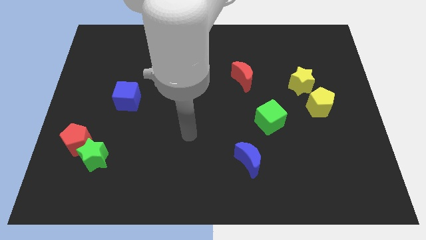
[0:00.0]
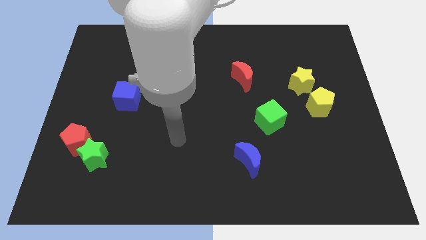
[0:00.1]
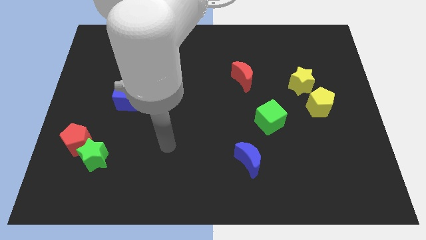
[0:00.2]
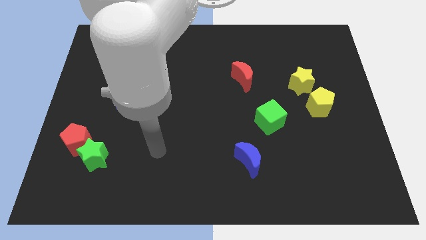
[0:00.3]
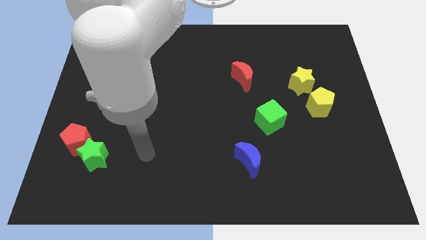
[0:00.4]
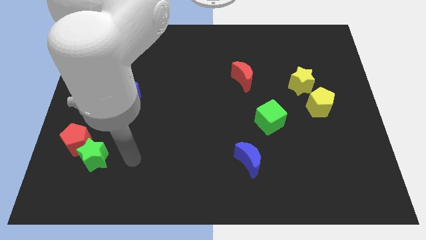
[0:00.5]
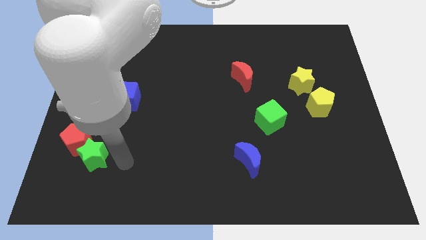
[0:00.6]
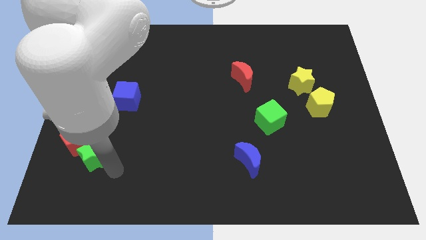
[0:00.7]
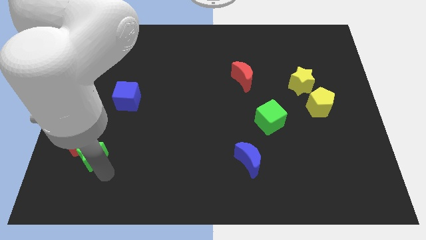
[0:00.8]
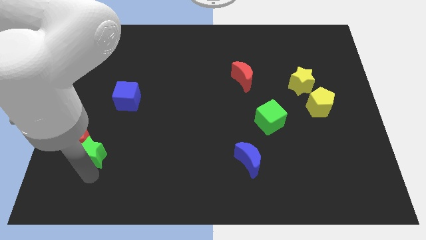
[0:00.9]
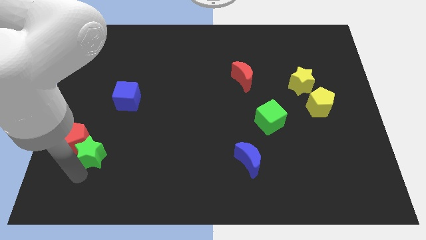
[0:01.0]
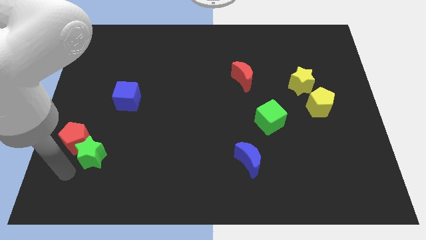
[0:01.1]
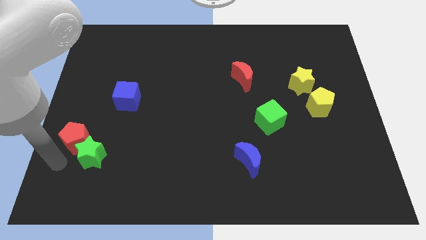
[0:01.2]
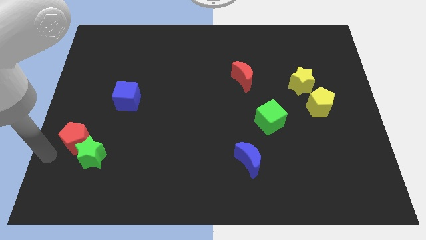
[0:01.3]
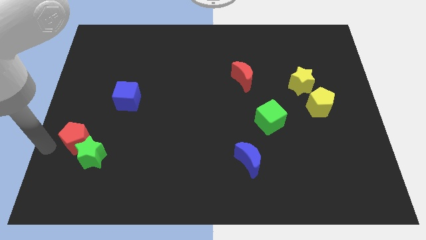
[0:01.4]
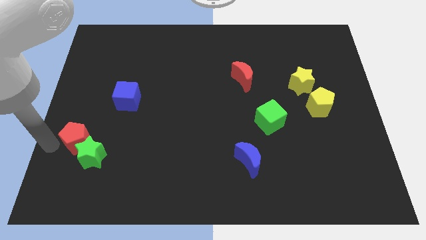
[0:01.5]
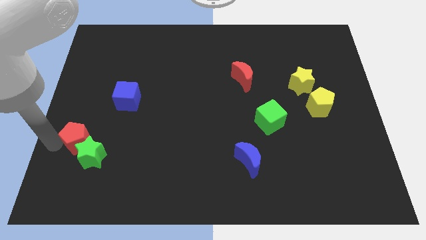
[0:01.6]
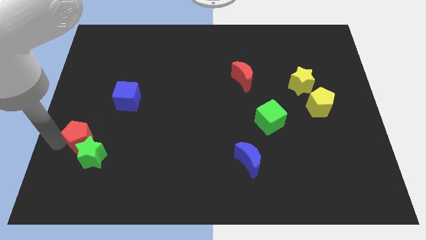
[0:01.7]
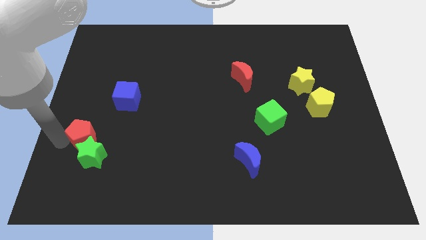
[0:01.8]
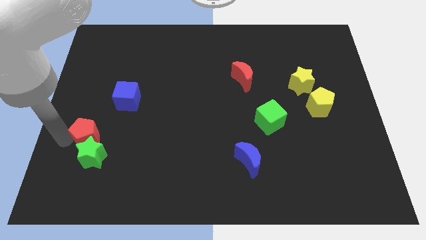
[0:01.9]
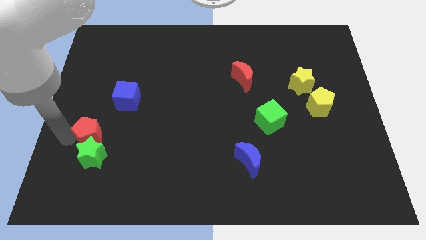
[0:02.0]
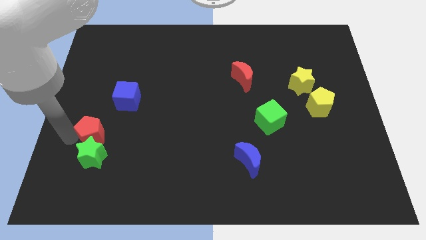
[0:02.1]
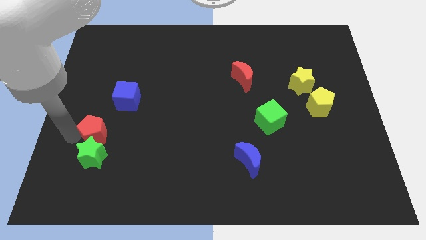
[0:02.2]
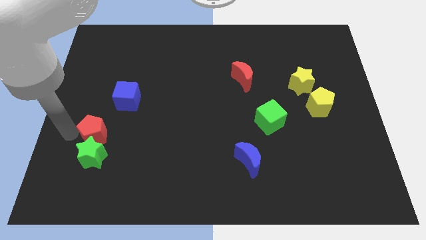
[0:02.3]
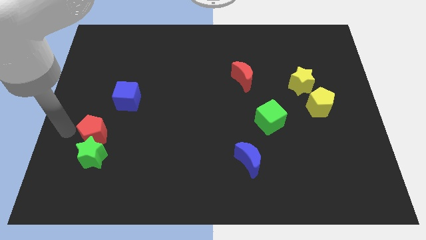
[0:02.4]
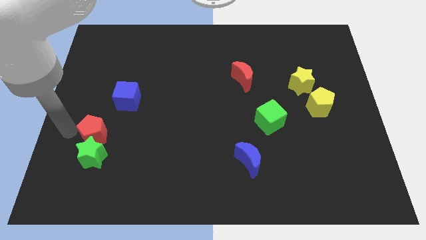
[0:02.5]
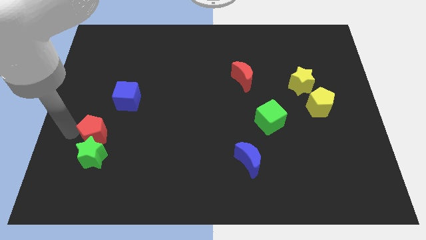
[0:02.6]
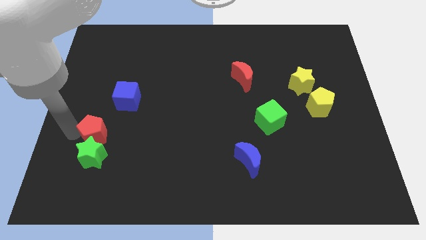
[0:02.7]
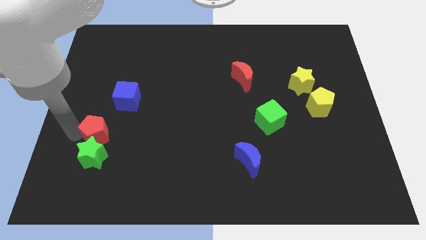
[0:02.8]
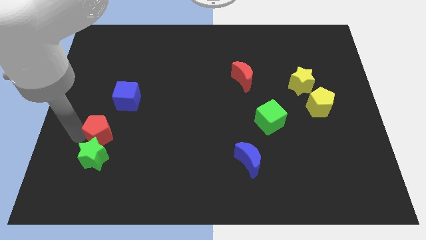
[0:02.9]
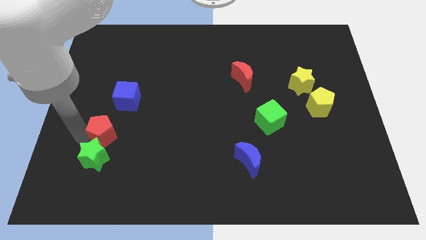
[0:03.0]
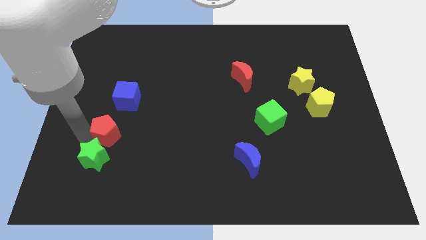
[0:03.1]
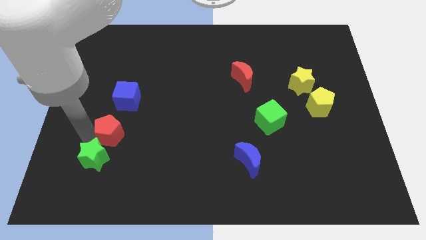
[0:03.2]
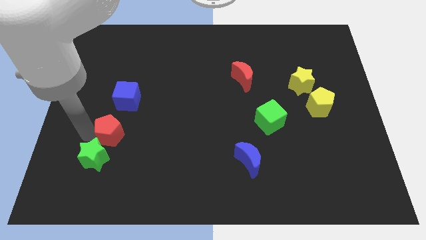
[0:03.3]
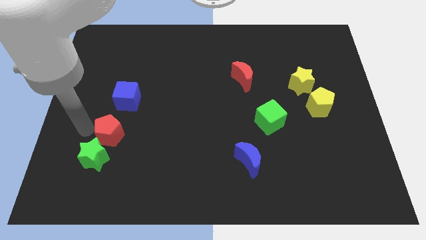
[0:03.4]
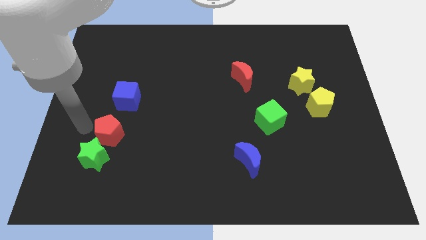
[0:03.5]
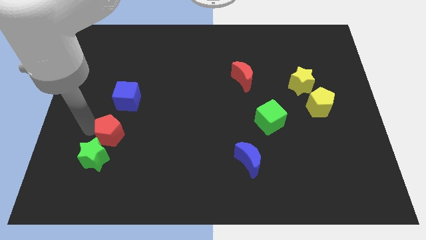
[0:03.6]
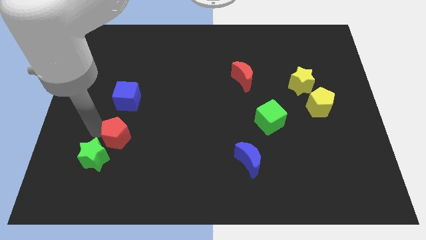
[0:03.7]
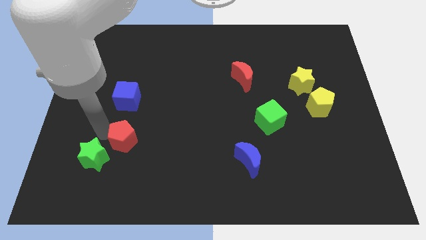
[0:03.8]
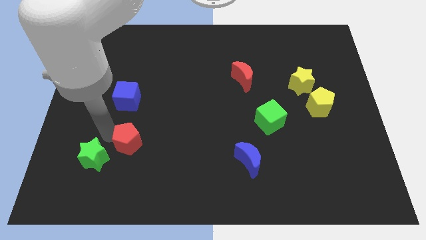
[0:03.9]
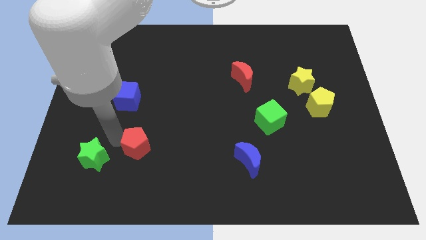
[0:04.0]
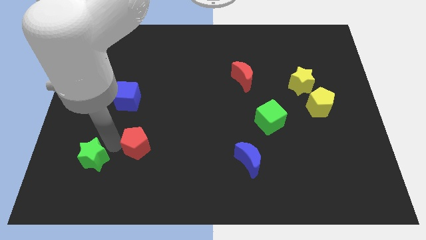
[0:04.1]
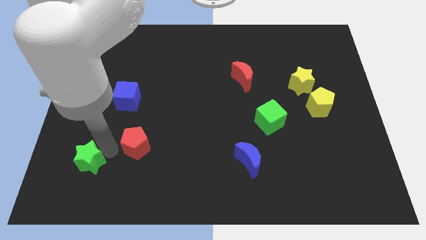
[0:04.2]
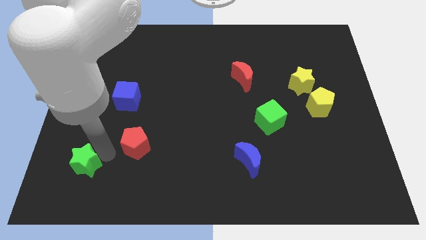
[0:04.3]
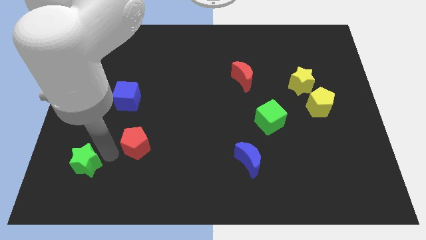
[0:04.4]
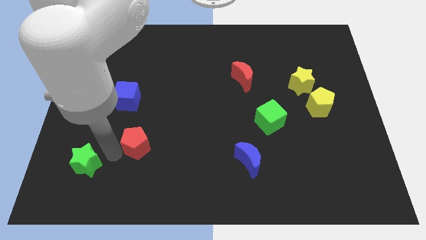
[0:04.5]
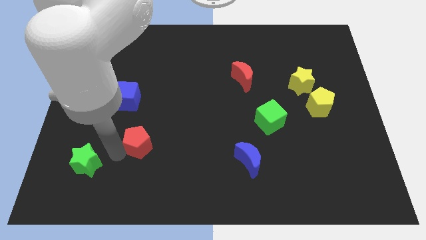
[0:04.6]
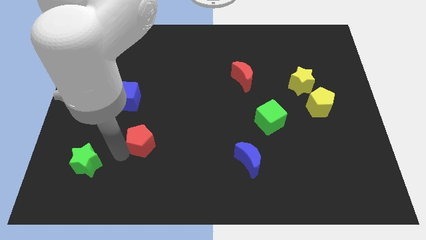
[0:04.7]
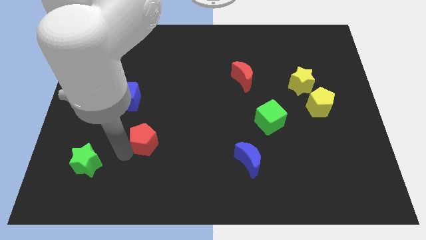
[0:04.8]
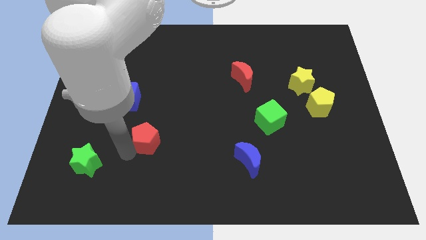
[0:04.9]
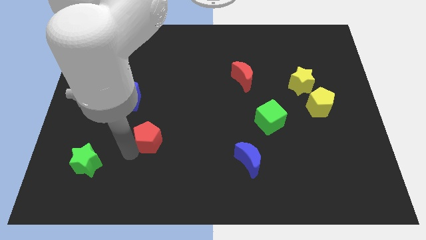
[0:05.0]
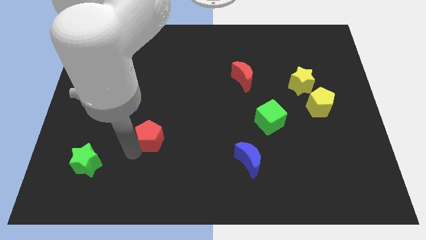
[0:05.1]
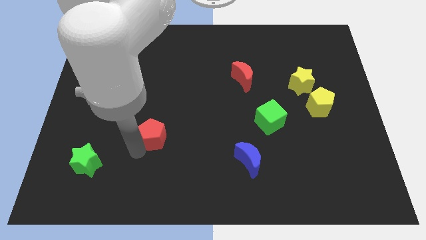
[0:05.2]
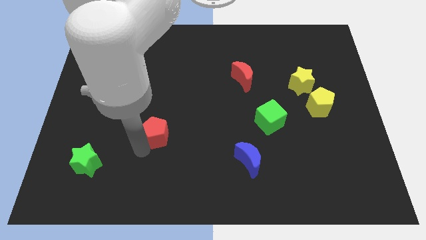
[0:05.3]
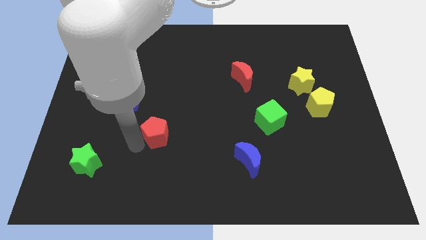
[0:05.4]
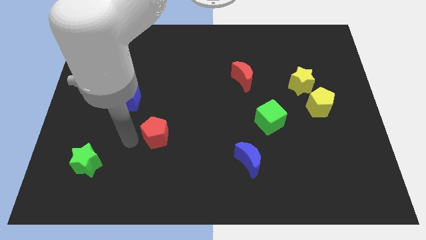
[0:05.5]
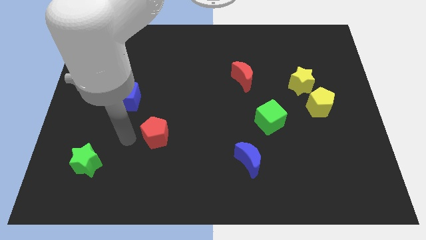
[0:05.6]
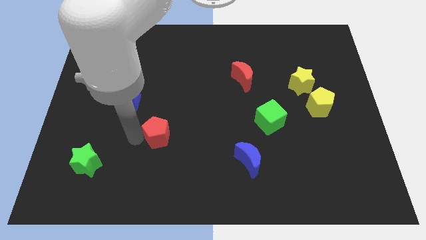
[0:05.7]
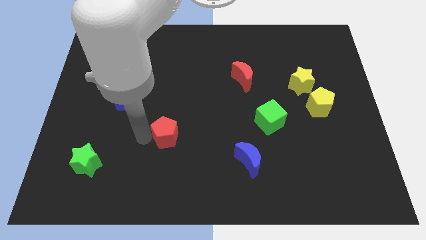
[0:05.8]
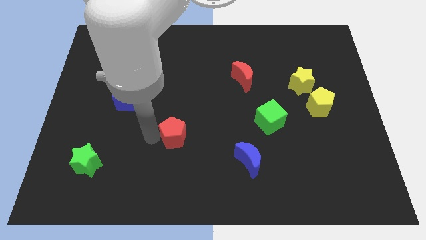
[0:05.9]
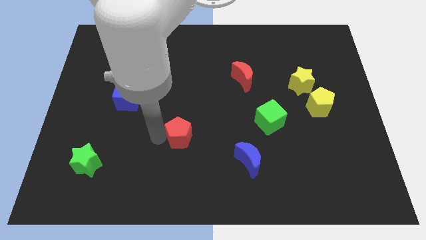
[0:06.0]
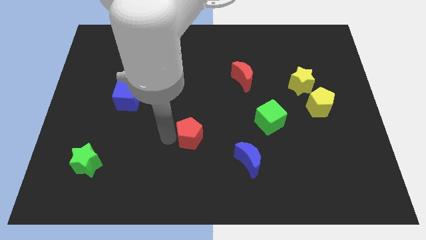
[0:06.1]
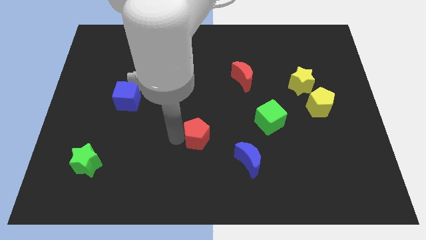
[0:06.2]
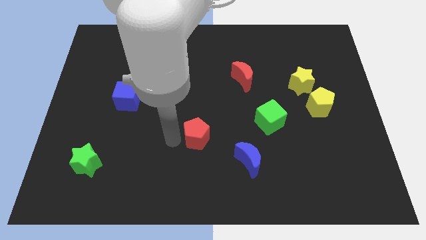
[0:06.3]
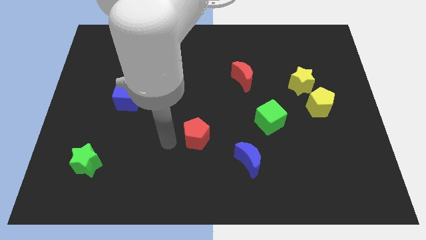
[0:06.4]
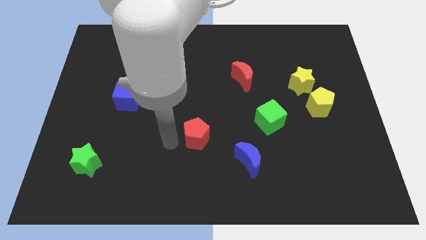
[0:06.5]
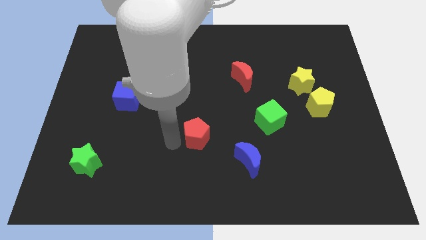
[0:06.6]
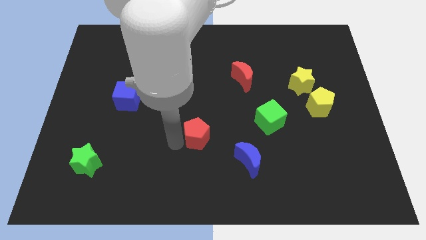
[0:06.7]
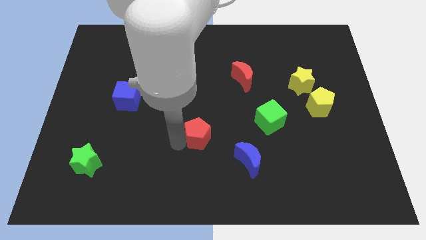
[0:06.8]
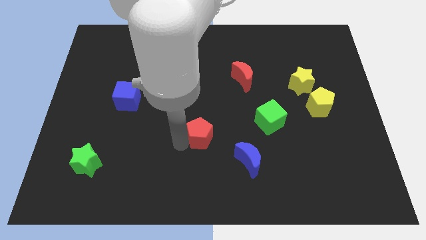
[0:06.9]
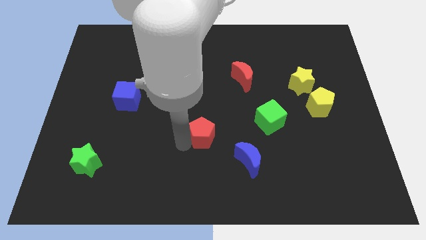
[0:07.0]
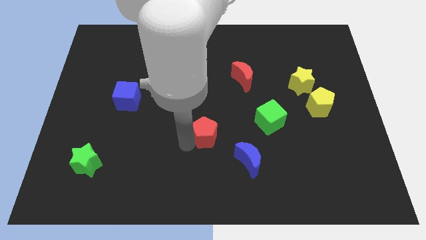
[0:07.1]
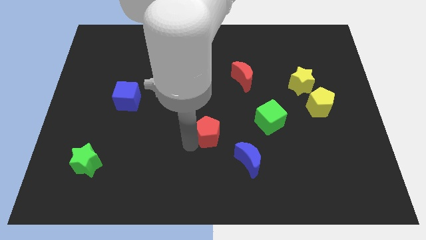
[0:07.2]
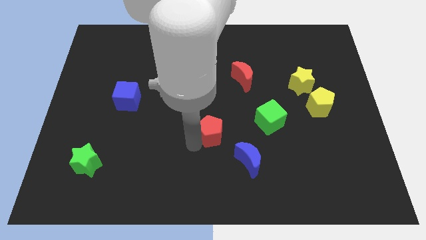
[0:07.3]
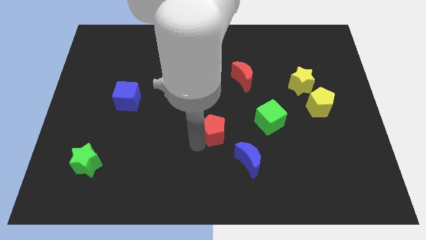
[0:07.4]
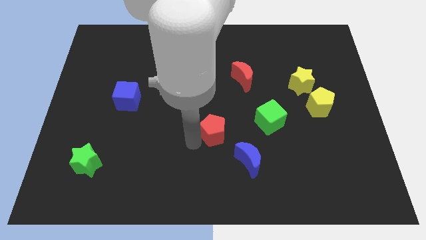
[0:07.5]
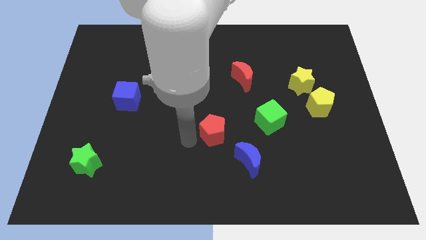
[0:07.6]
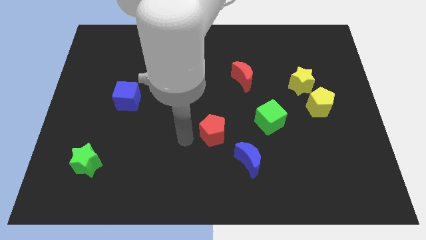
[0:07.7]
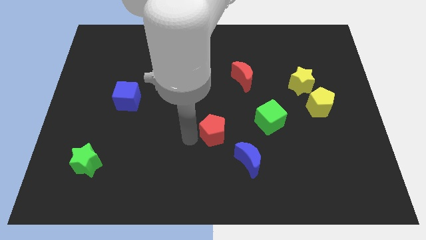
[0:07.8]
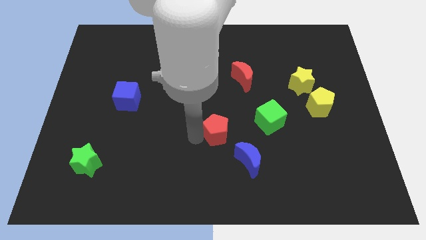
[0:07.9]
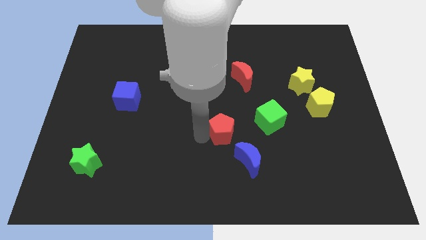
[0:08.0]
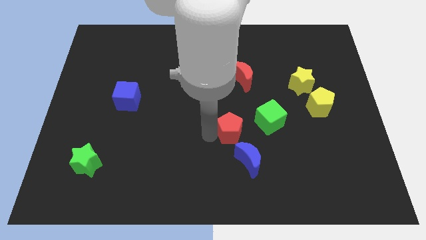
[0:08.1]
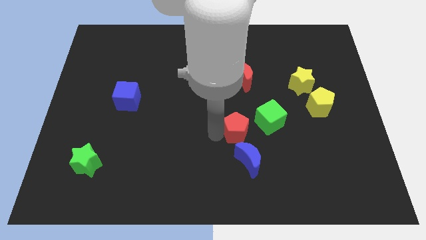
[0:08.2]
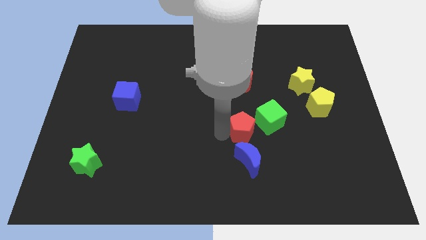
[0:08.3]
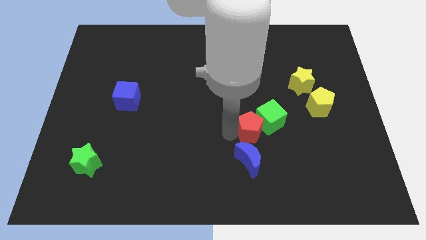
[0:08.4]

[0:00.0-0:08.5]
move the red pentagon to the green cube
